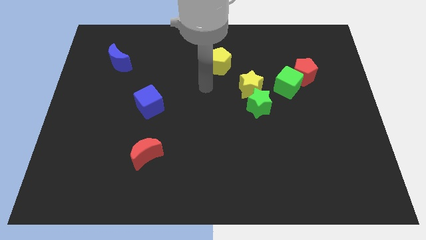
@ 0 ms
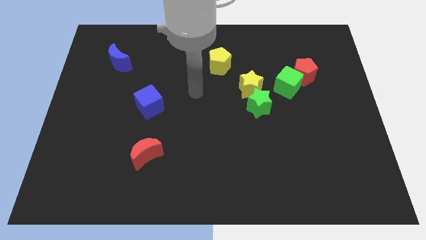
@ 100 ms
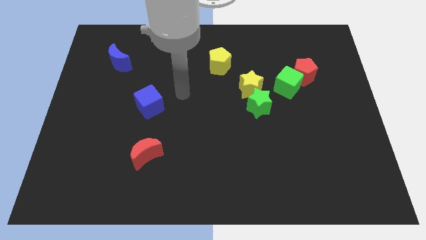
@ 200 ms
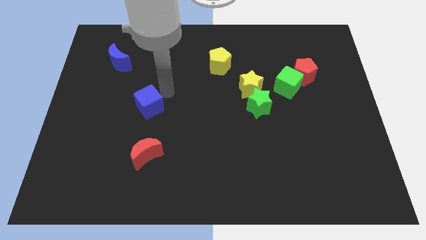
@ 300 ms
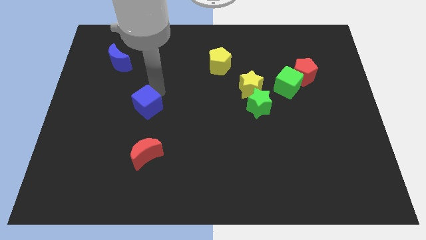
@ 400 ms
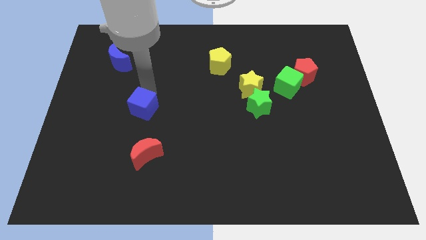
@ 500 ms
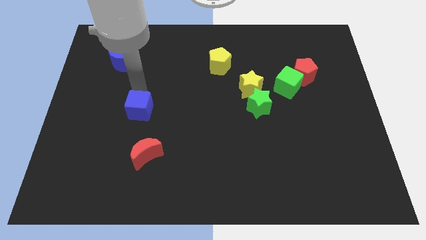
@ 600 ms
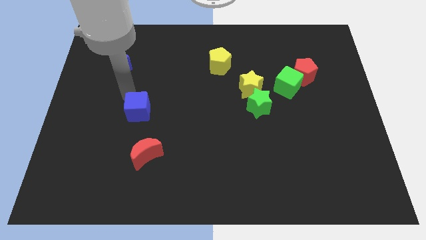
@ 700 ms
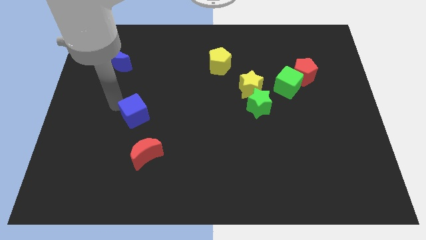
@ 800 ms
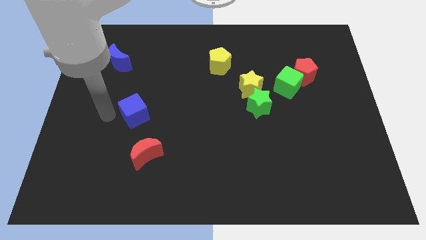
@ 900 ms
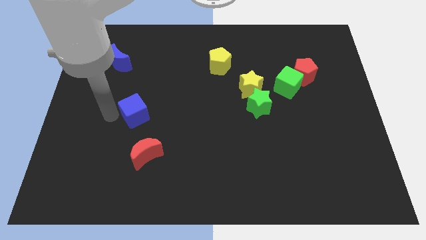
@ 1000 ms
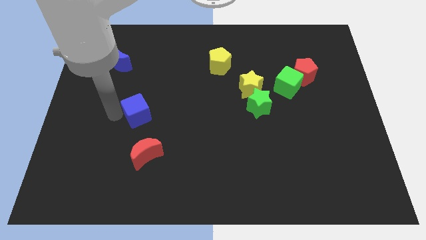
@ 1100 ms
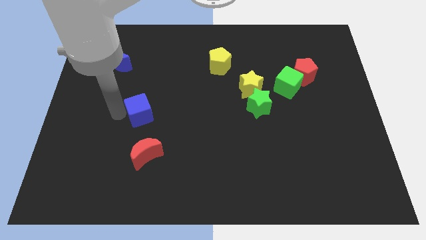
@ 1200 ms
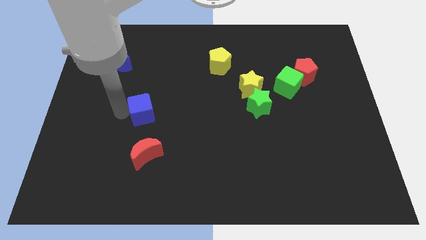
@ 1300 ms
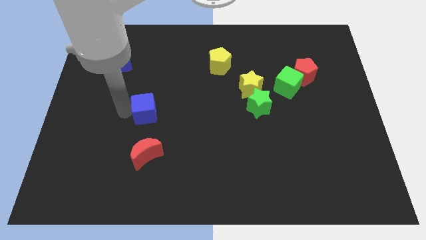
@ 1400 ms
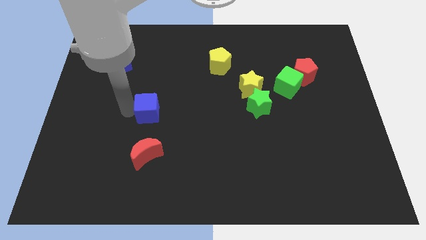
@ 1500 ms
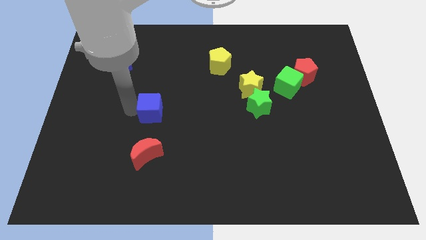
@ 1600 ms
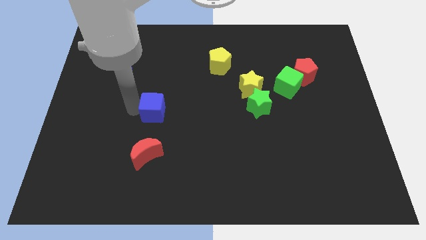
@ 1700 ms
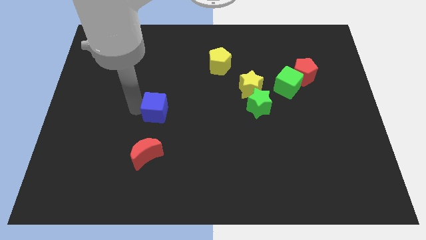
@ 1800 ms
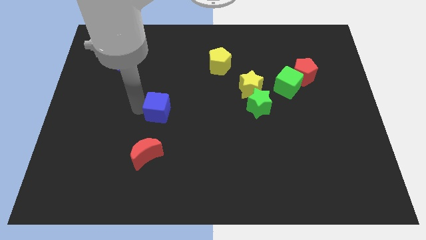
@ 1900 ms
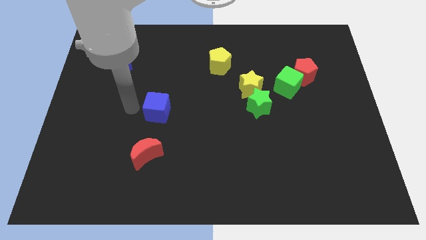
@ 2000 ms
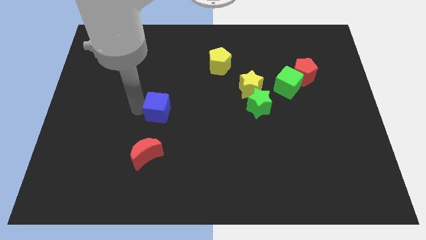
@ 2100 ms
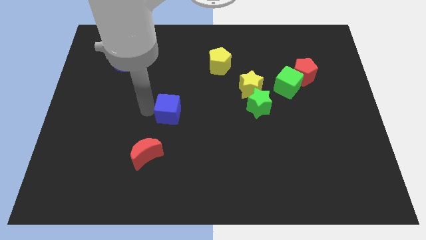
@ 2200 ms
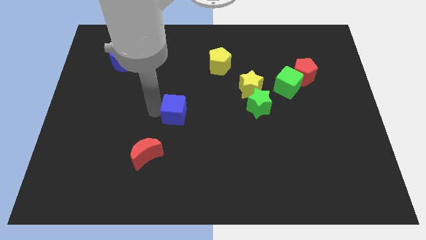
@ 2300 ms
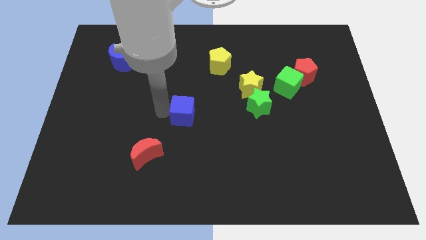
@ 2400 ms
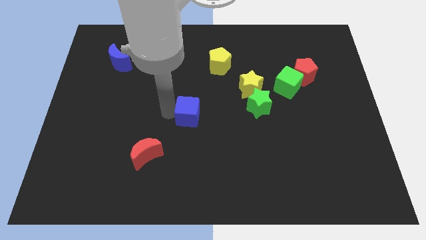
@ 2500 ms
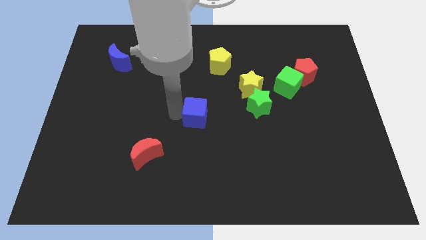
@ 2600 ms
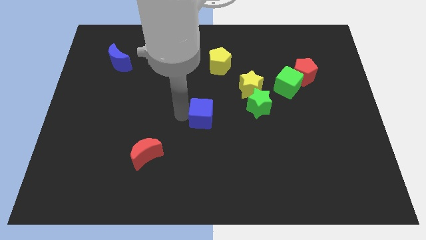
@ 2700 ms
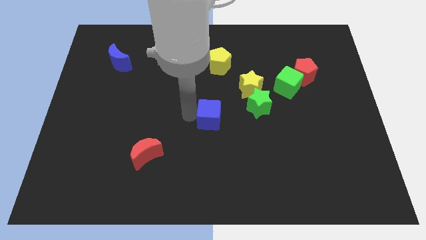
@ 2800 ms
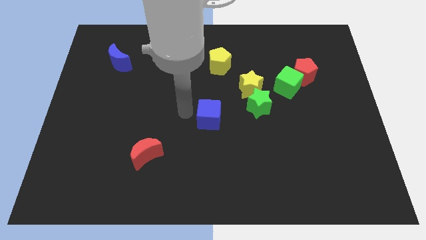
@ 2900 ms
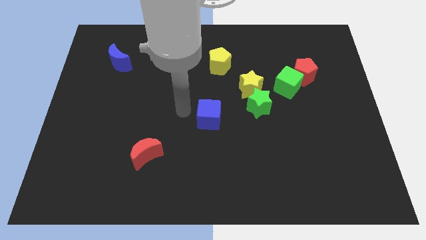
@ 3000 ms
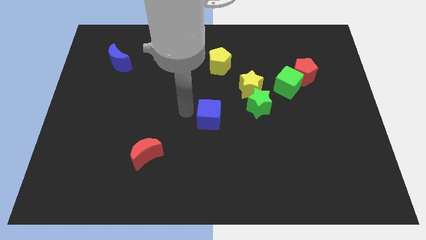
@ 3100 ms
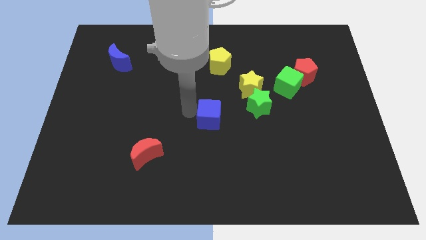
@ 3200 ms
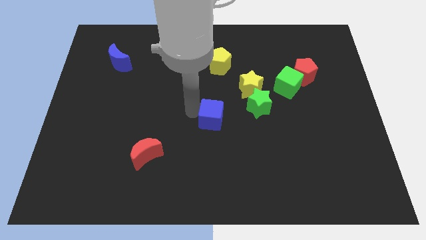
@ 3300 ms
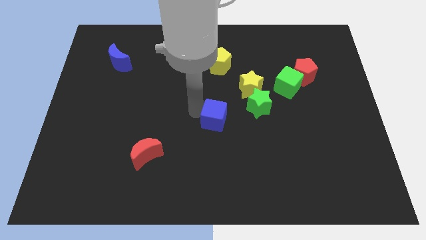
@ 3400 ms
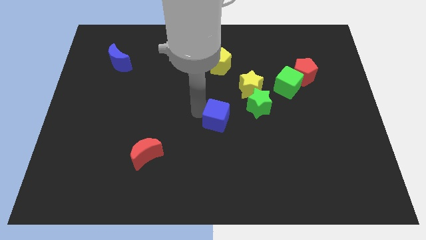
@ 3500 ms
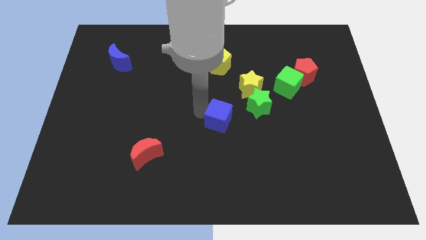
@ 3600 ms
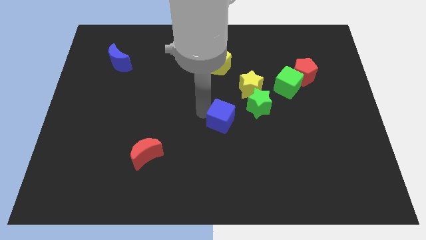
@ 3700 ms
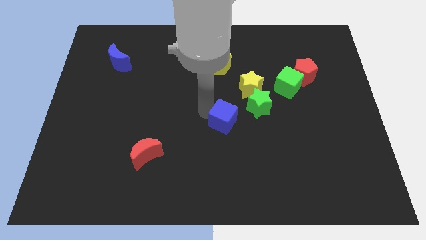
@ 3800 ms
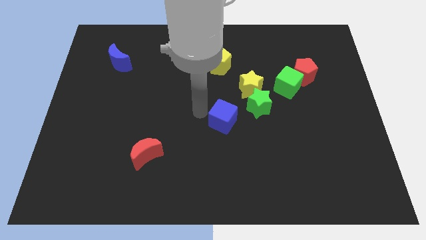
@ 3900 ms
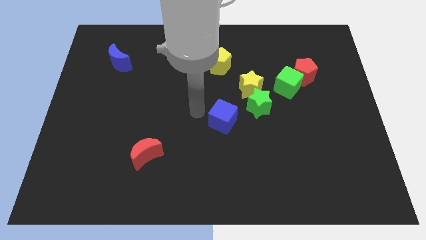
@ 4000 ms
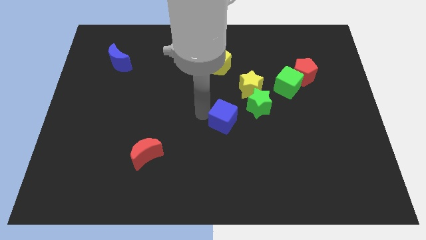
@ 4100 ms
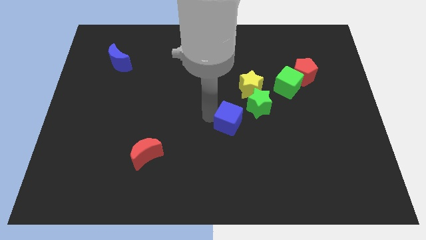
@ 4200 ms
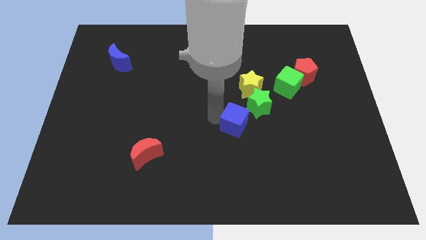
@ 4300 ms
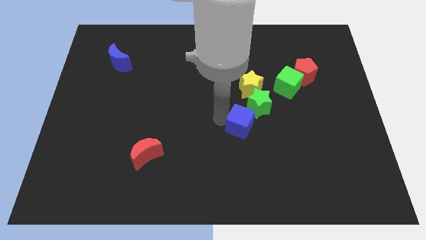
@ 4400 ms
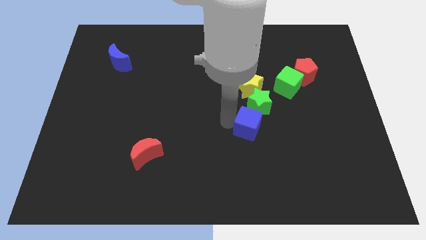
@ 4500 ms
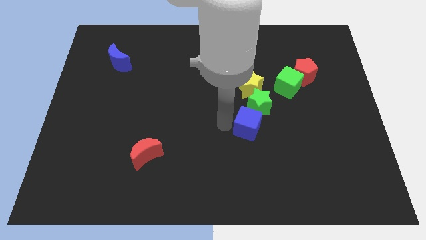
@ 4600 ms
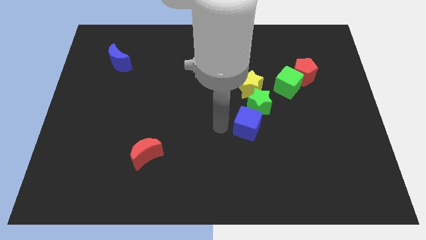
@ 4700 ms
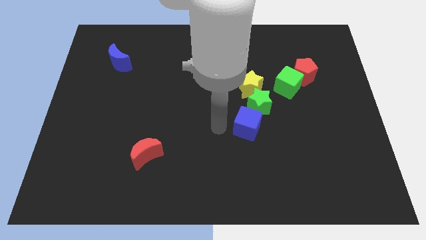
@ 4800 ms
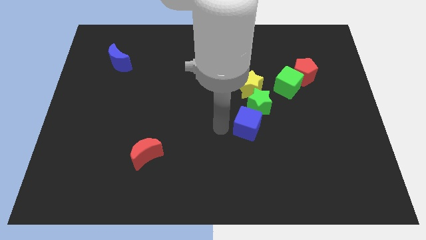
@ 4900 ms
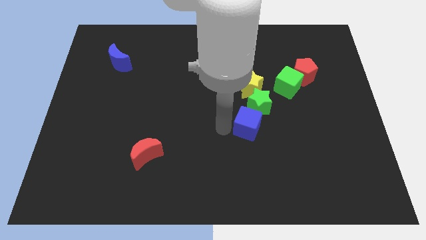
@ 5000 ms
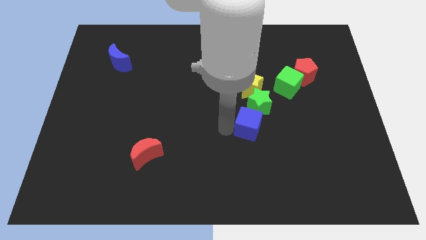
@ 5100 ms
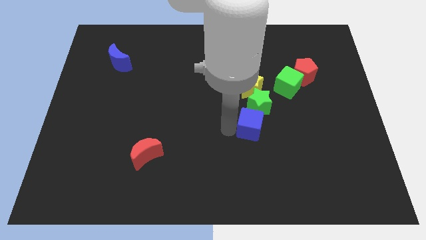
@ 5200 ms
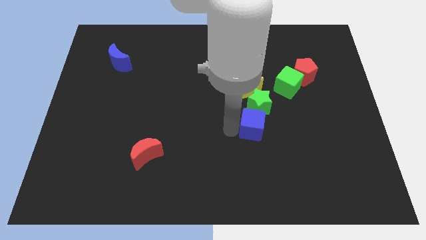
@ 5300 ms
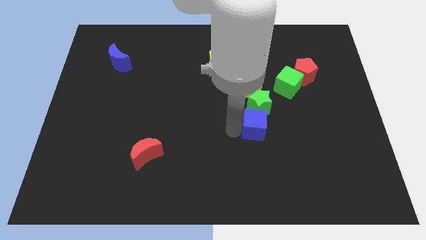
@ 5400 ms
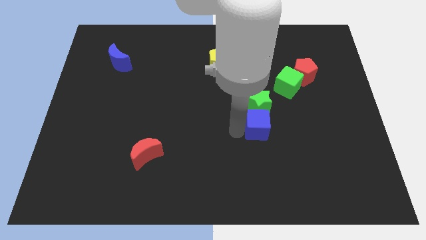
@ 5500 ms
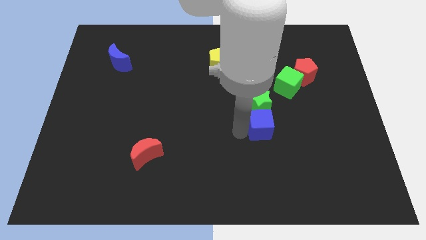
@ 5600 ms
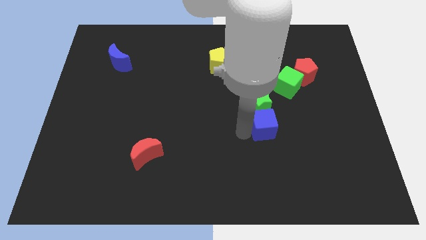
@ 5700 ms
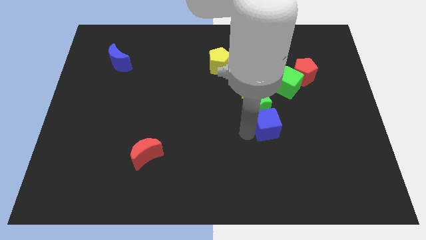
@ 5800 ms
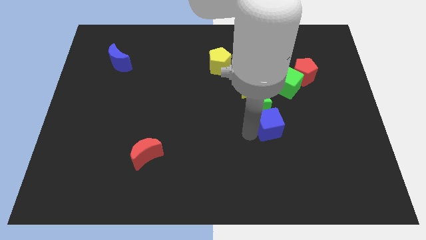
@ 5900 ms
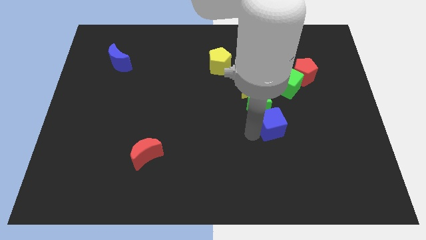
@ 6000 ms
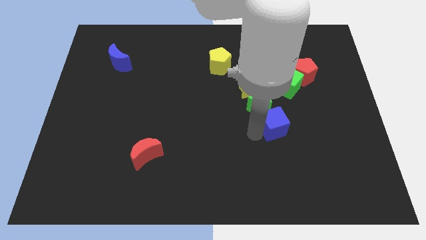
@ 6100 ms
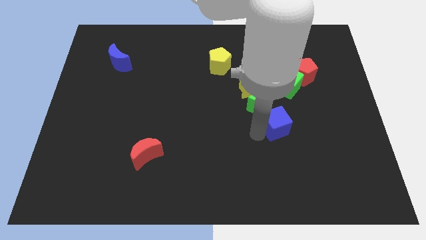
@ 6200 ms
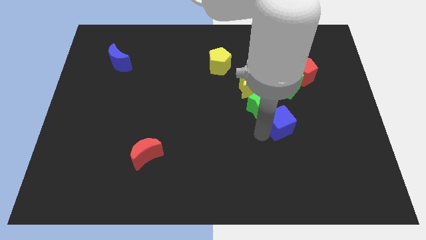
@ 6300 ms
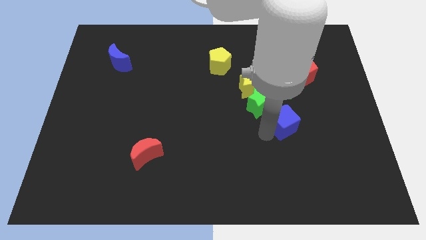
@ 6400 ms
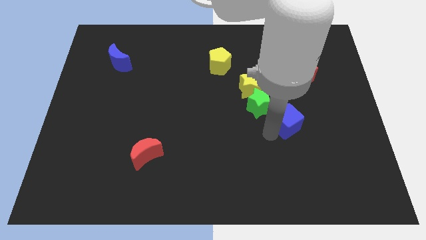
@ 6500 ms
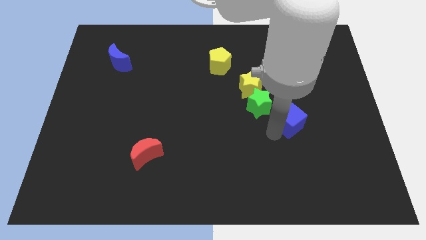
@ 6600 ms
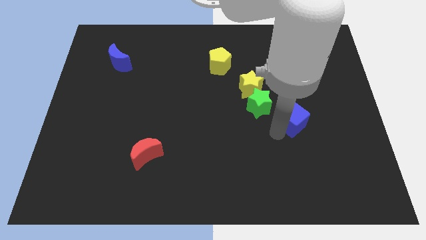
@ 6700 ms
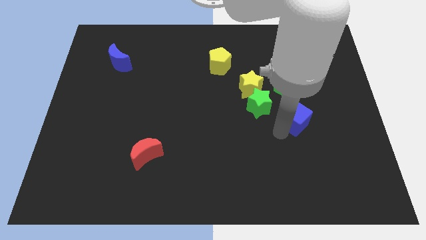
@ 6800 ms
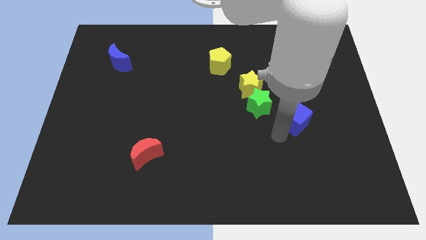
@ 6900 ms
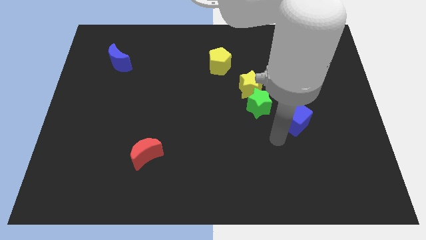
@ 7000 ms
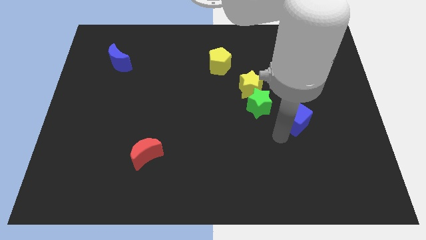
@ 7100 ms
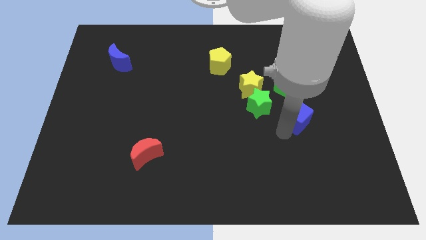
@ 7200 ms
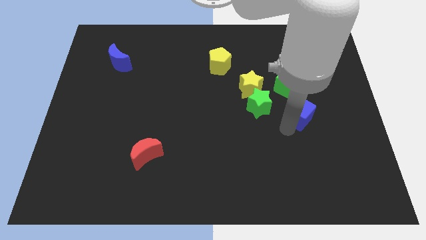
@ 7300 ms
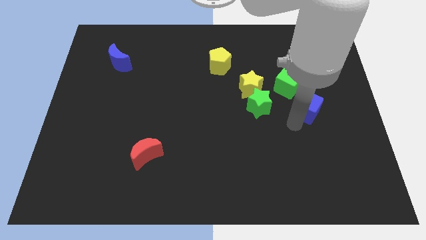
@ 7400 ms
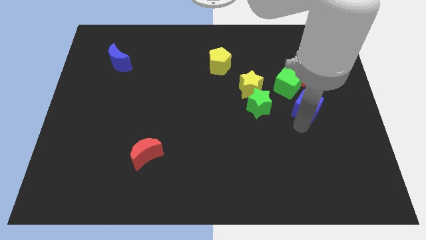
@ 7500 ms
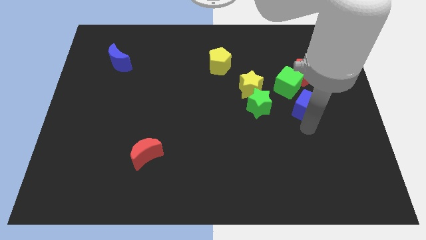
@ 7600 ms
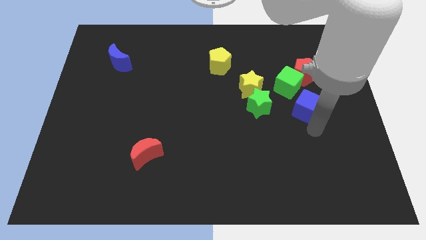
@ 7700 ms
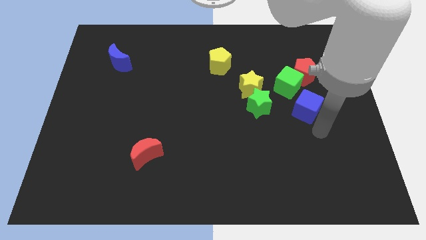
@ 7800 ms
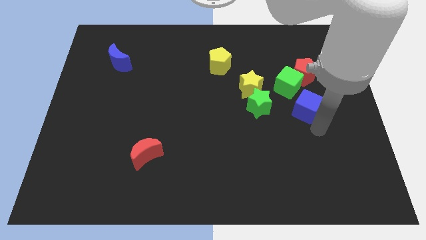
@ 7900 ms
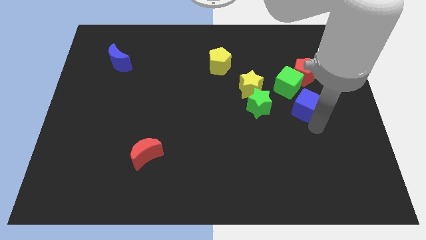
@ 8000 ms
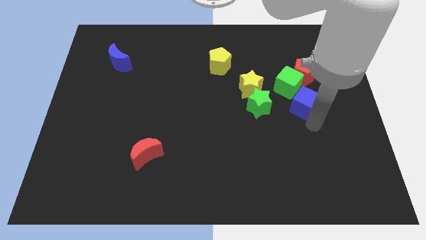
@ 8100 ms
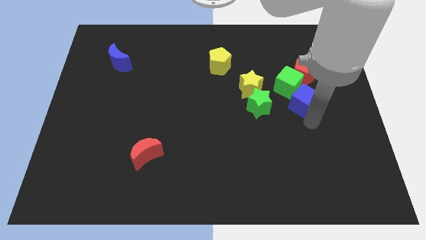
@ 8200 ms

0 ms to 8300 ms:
put the blue cube to the right side of the yellow star
